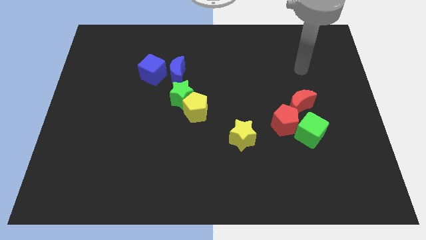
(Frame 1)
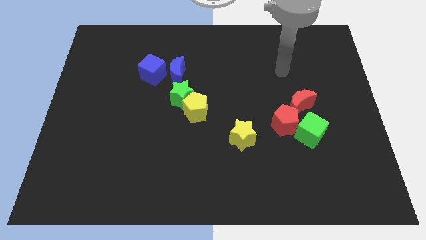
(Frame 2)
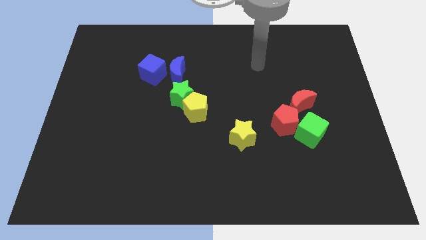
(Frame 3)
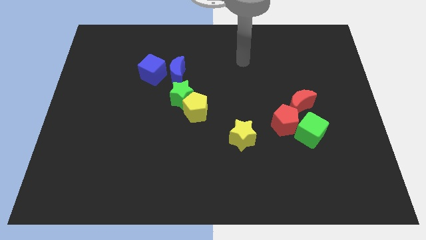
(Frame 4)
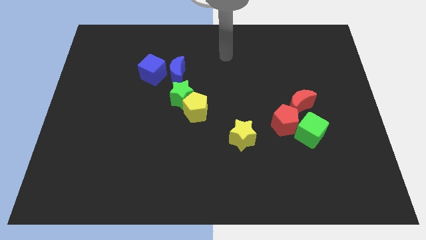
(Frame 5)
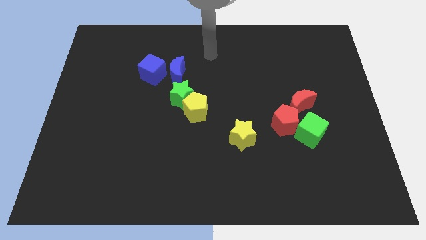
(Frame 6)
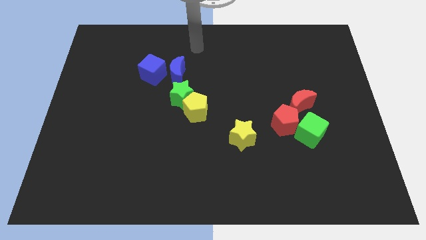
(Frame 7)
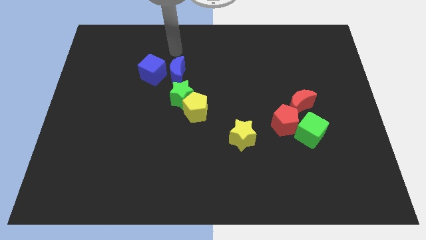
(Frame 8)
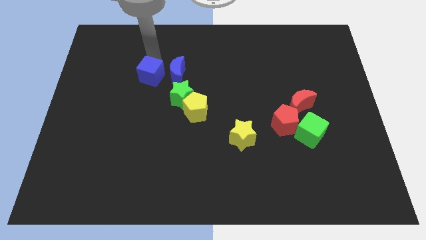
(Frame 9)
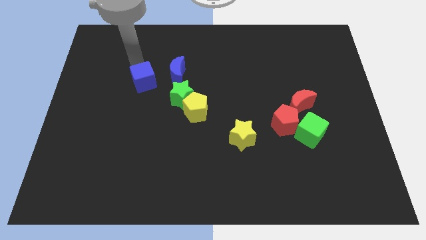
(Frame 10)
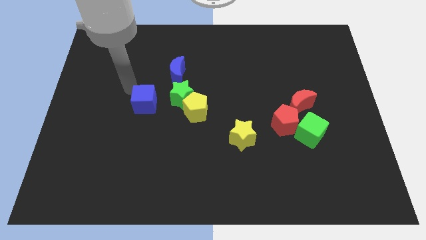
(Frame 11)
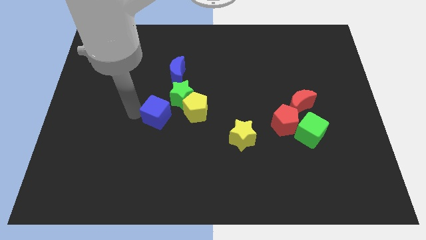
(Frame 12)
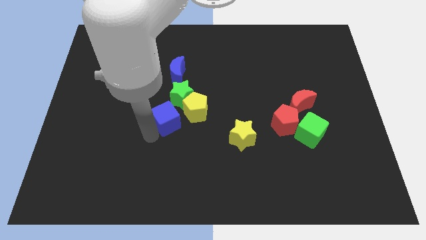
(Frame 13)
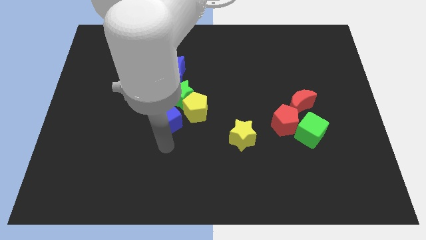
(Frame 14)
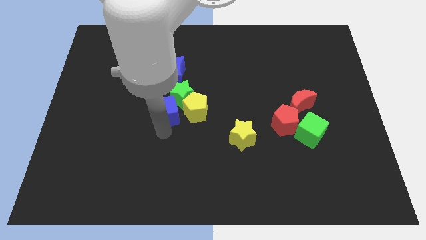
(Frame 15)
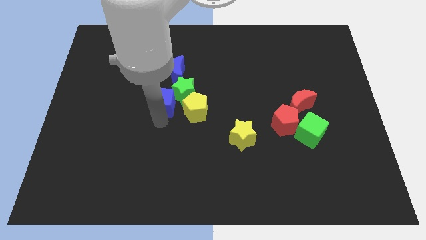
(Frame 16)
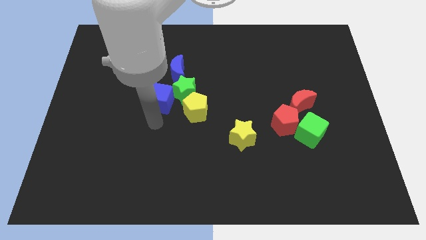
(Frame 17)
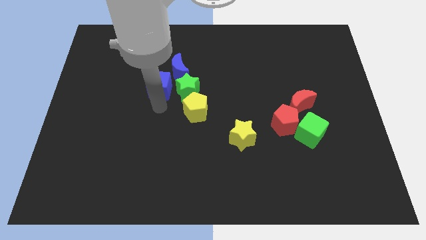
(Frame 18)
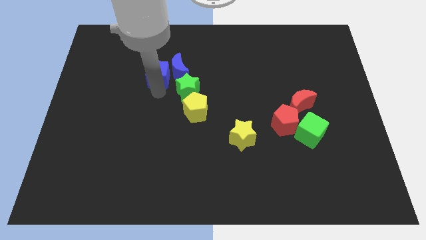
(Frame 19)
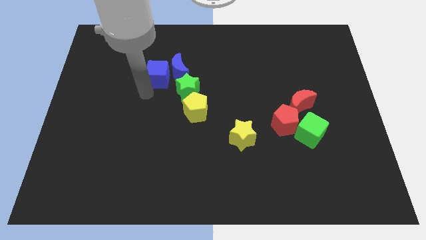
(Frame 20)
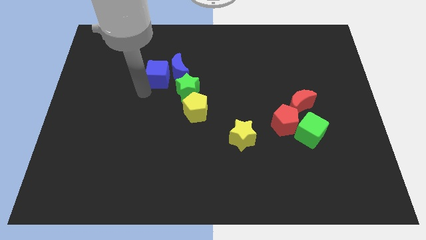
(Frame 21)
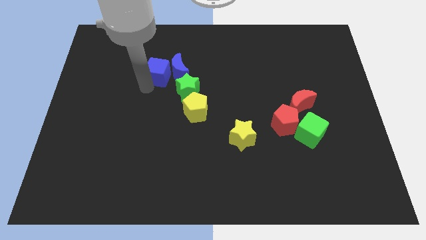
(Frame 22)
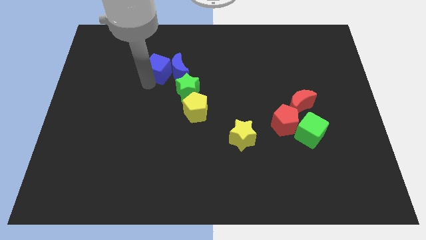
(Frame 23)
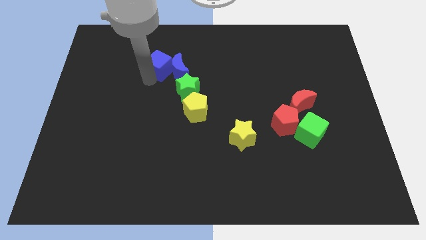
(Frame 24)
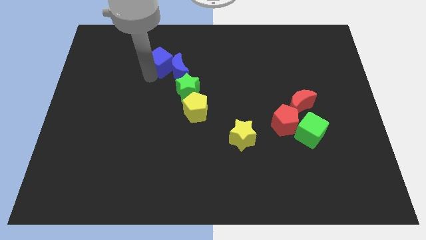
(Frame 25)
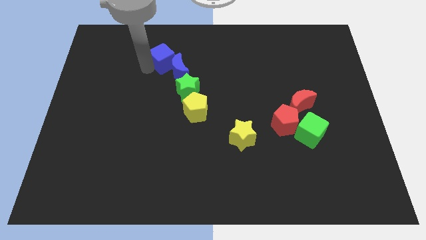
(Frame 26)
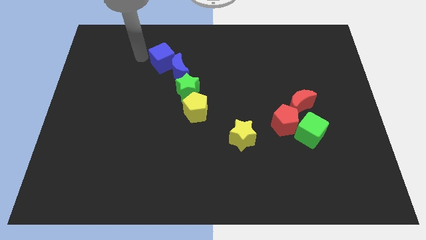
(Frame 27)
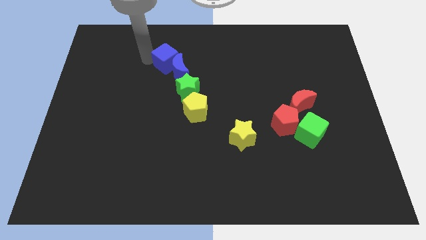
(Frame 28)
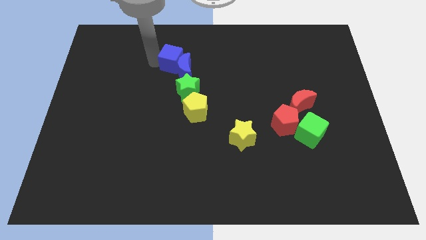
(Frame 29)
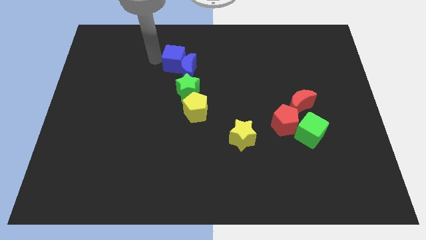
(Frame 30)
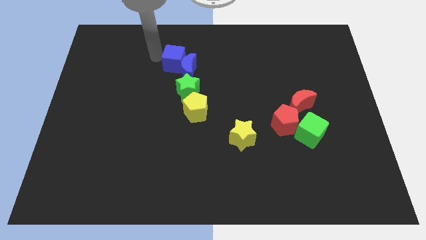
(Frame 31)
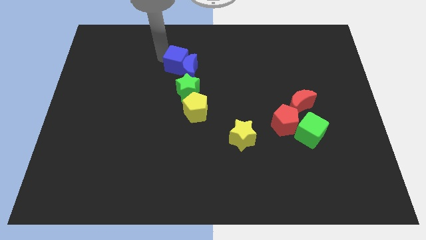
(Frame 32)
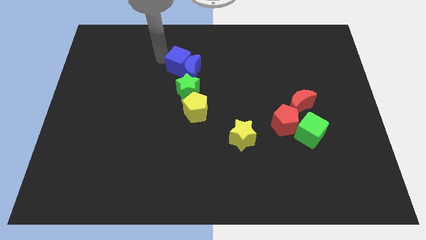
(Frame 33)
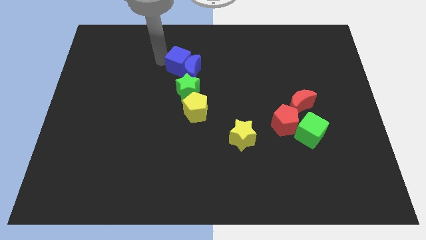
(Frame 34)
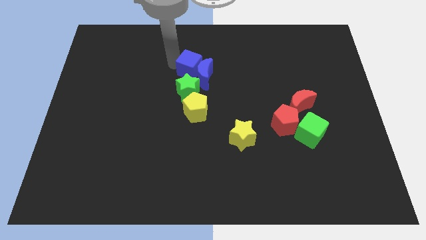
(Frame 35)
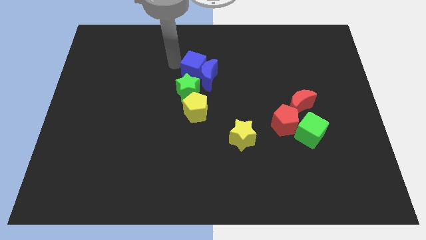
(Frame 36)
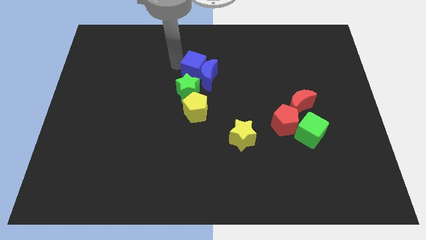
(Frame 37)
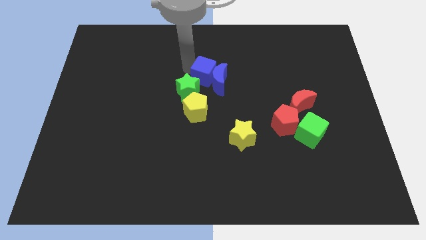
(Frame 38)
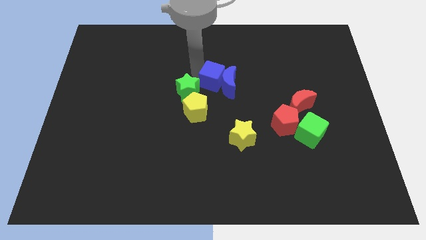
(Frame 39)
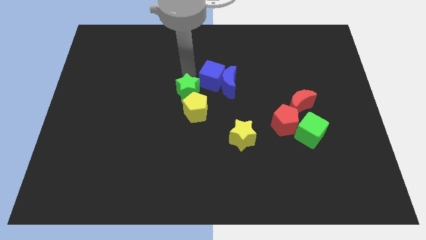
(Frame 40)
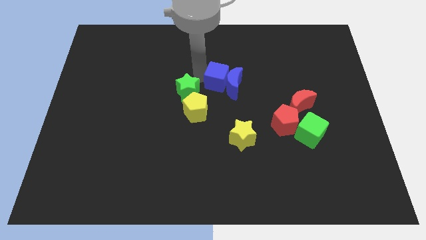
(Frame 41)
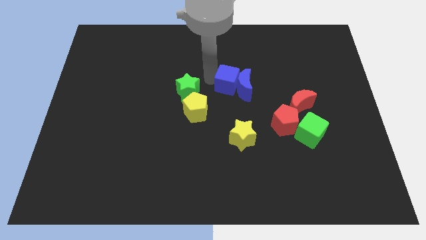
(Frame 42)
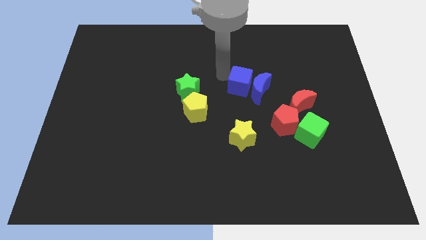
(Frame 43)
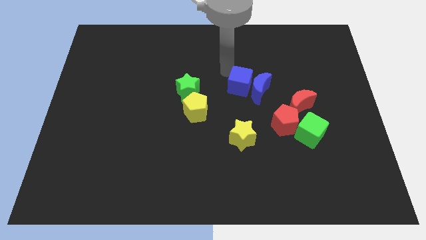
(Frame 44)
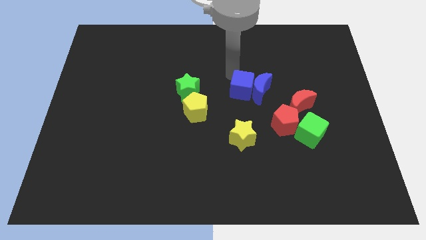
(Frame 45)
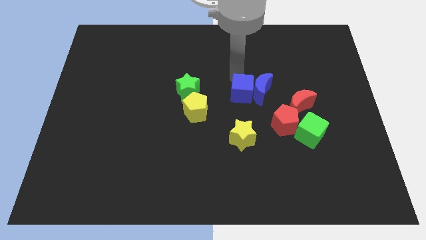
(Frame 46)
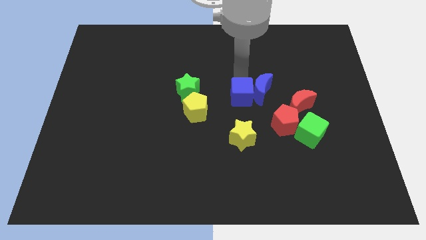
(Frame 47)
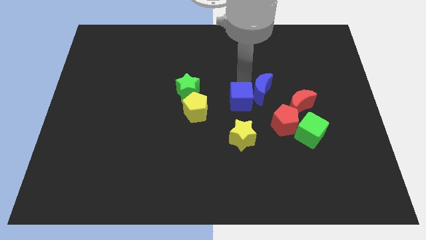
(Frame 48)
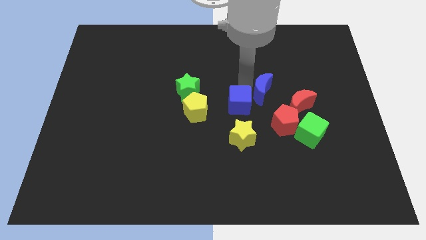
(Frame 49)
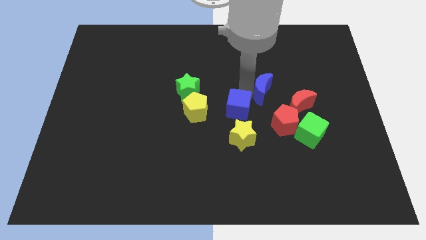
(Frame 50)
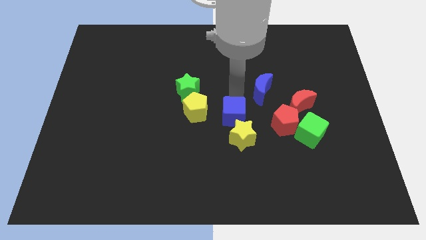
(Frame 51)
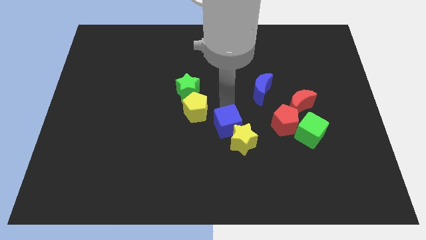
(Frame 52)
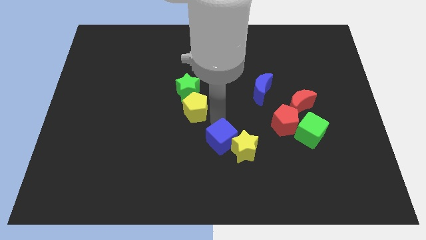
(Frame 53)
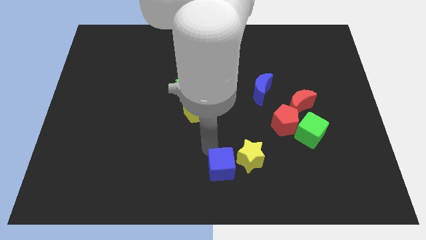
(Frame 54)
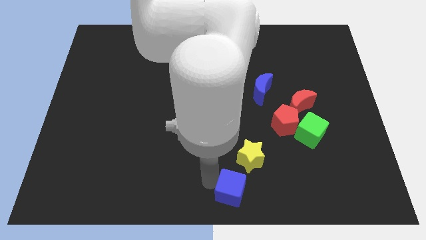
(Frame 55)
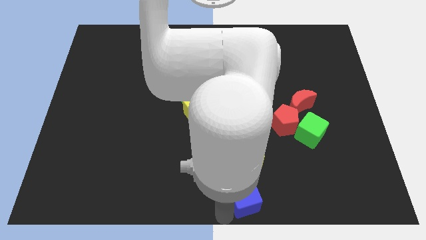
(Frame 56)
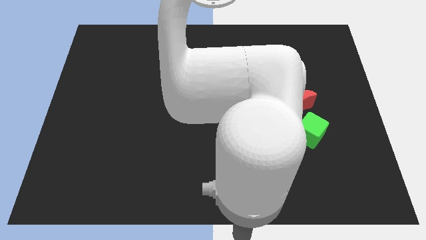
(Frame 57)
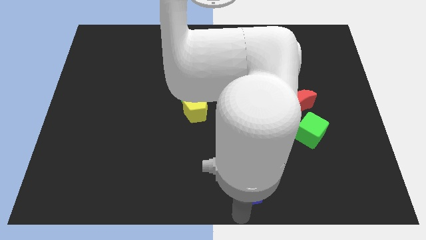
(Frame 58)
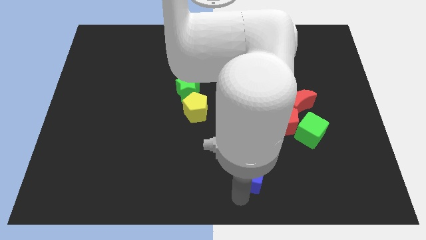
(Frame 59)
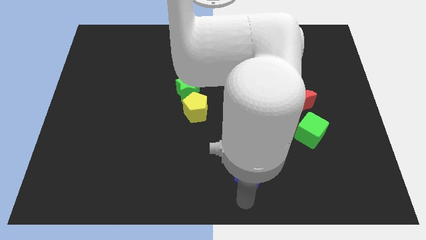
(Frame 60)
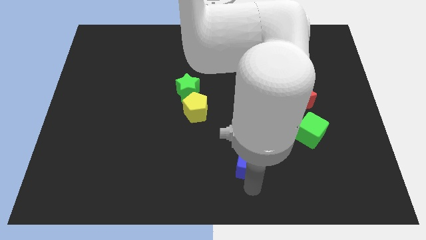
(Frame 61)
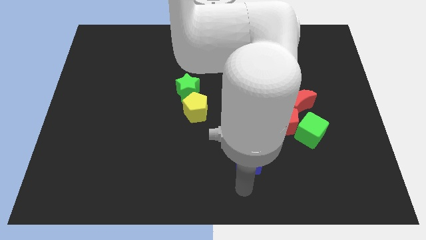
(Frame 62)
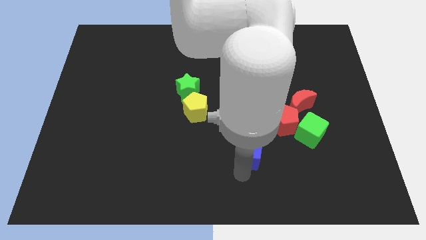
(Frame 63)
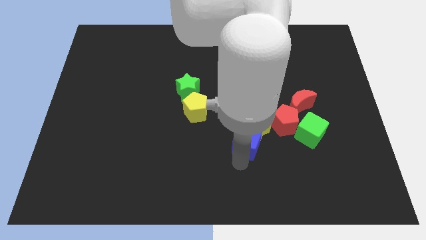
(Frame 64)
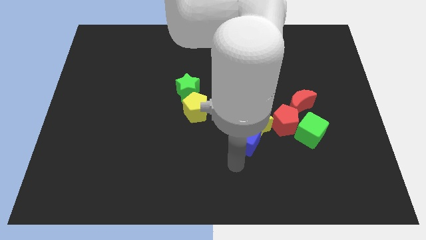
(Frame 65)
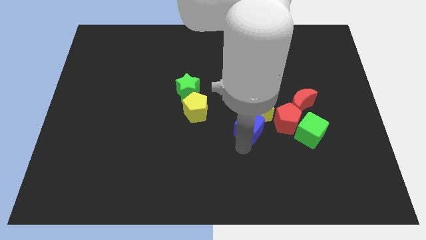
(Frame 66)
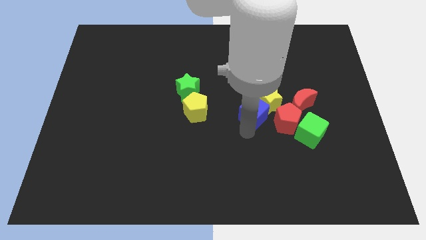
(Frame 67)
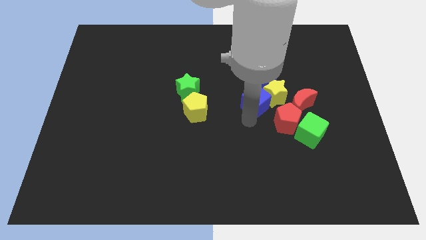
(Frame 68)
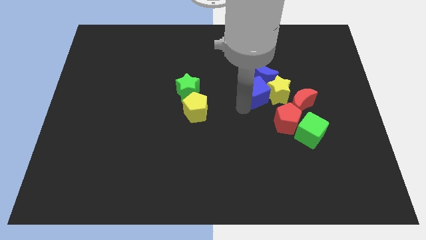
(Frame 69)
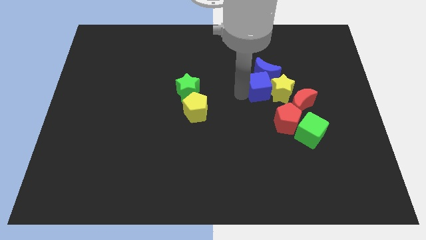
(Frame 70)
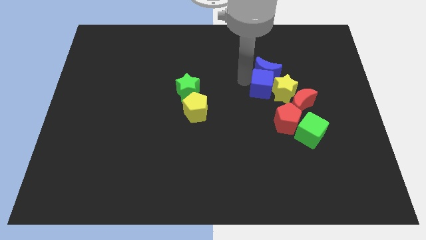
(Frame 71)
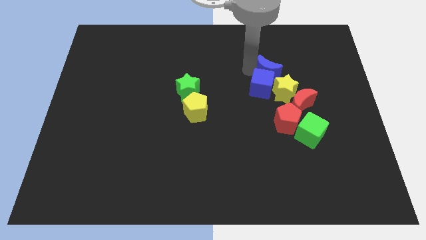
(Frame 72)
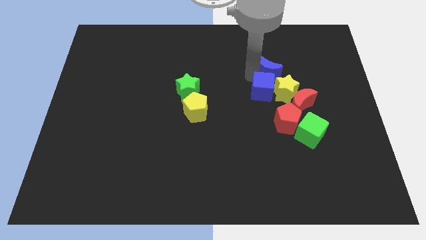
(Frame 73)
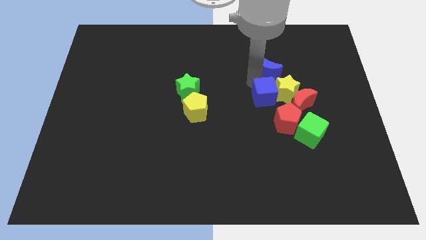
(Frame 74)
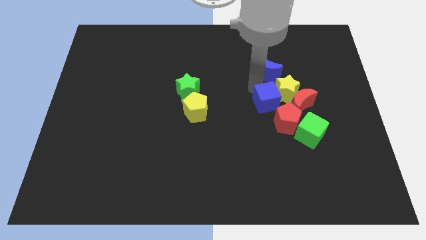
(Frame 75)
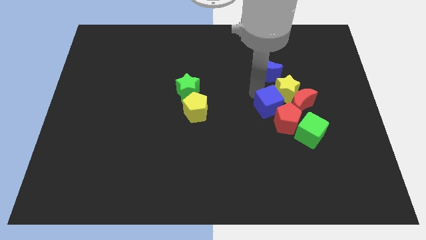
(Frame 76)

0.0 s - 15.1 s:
slide the blue cube close to the red pentagon

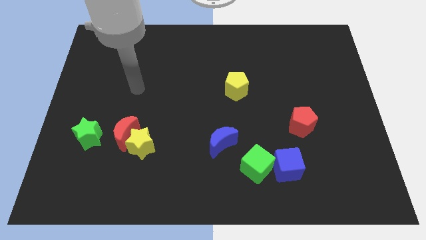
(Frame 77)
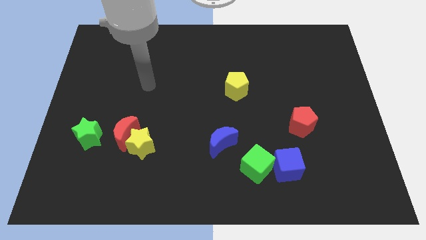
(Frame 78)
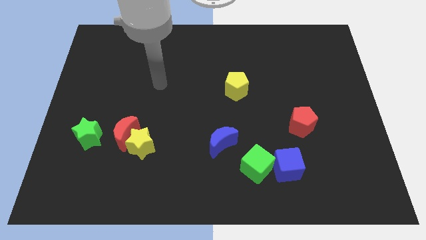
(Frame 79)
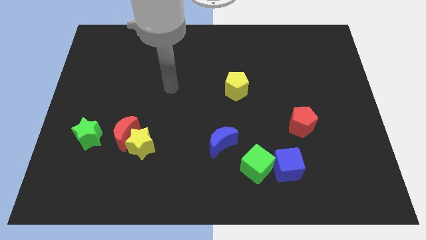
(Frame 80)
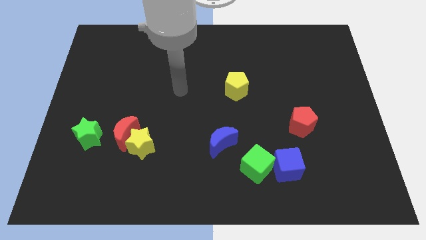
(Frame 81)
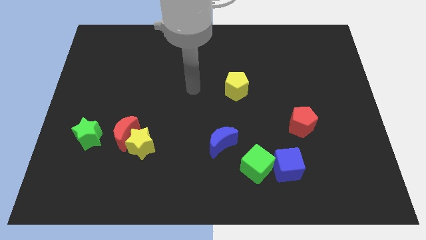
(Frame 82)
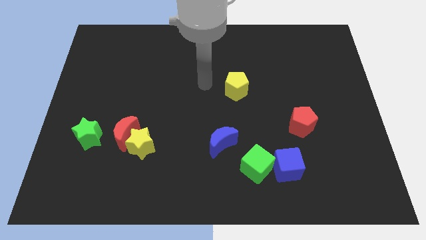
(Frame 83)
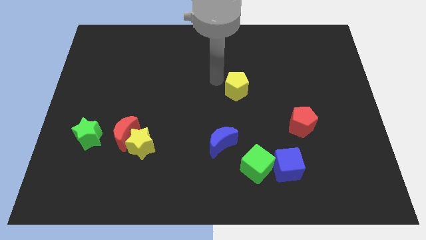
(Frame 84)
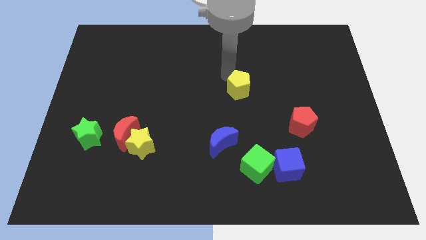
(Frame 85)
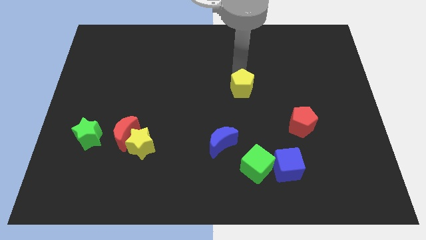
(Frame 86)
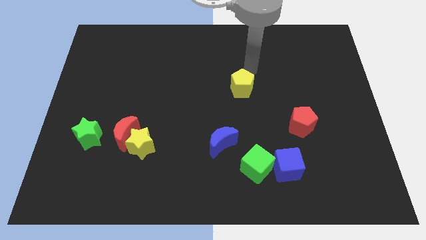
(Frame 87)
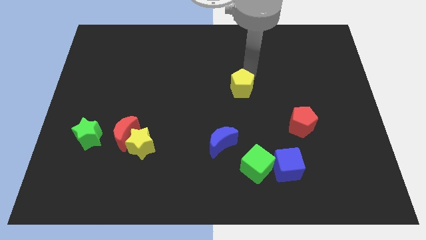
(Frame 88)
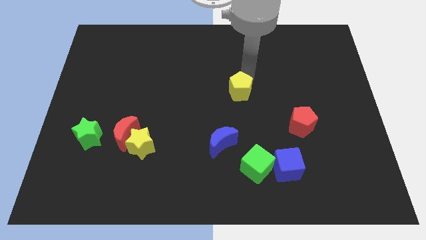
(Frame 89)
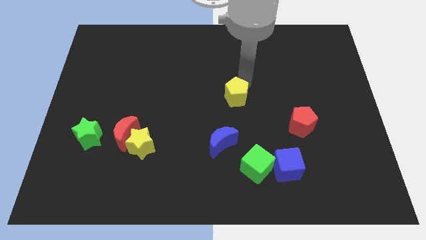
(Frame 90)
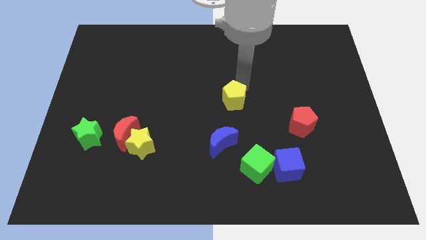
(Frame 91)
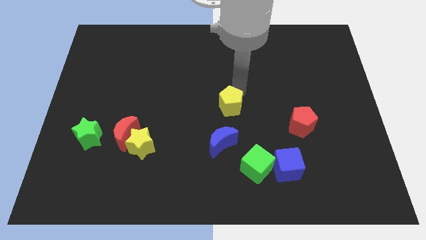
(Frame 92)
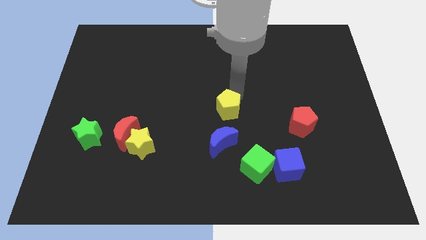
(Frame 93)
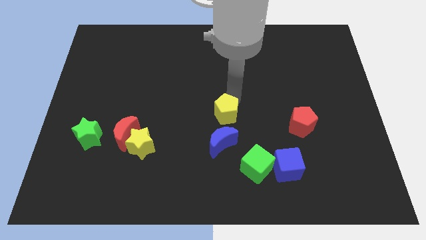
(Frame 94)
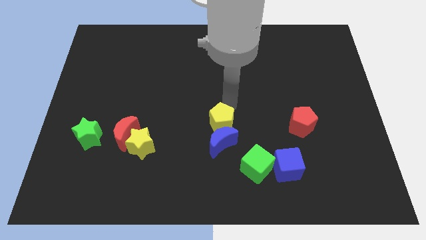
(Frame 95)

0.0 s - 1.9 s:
move the yellow pentagon close to the blue moon
